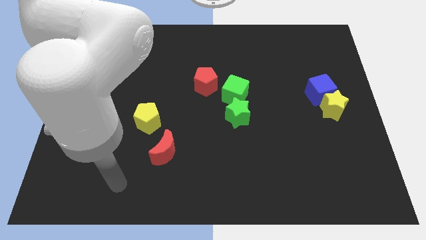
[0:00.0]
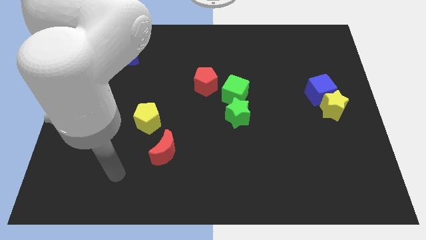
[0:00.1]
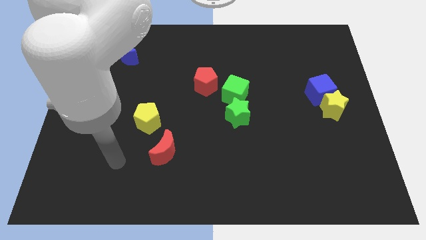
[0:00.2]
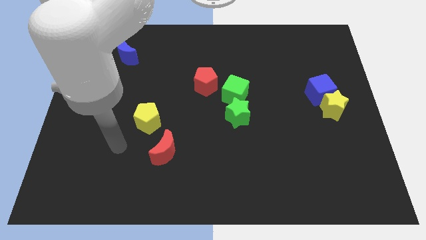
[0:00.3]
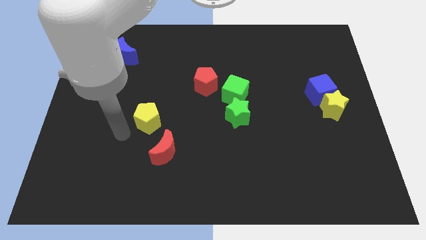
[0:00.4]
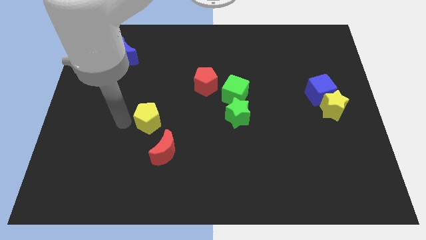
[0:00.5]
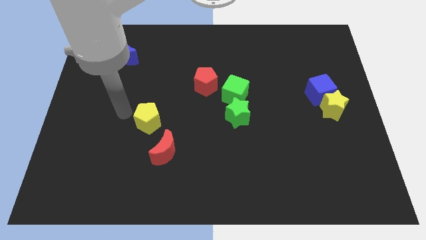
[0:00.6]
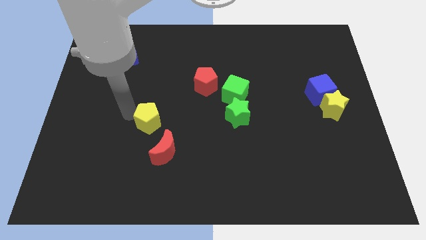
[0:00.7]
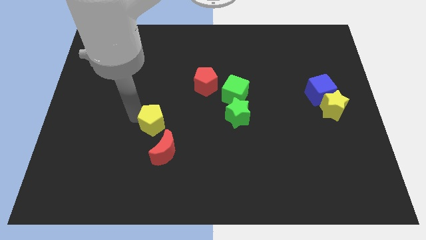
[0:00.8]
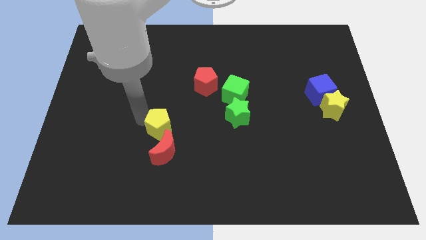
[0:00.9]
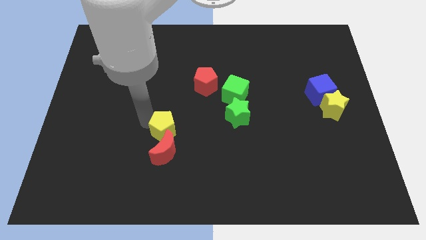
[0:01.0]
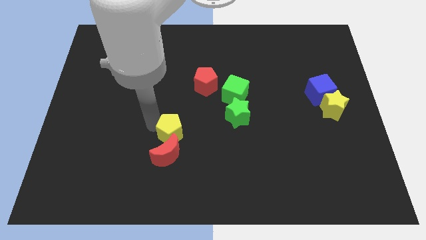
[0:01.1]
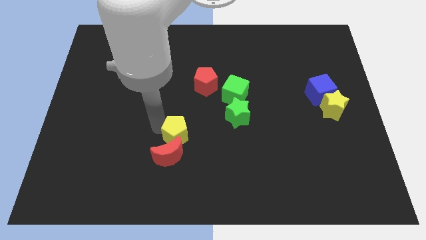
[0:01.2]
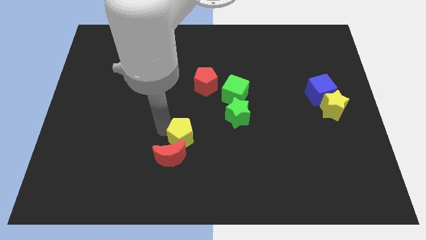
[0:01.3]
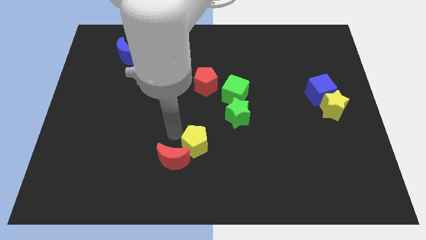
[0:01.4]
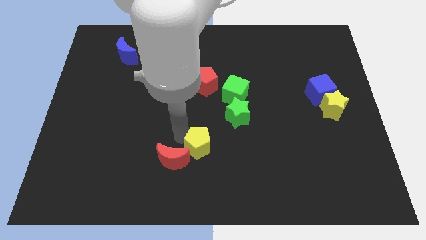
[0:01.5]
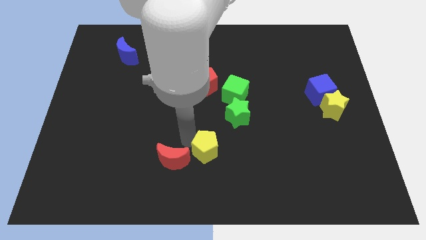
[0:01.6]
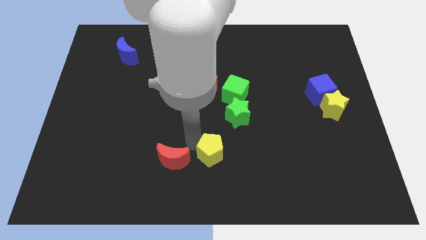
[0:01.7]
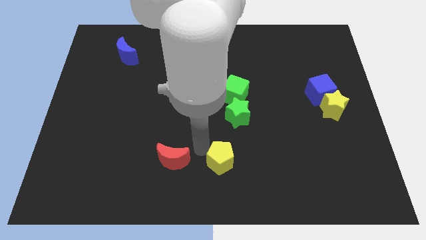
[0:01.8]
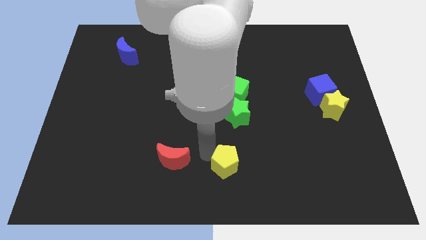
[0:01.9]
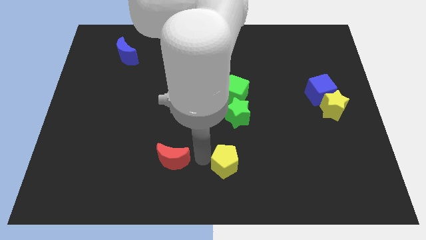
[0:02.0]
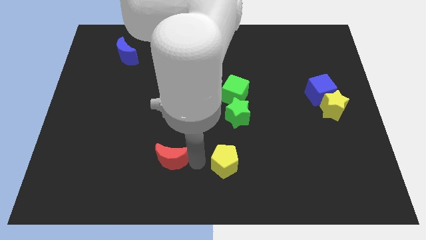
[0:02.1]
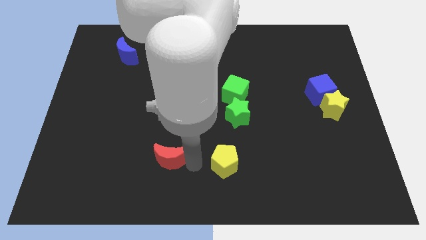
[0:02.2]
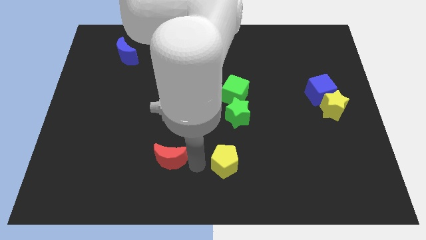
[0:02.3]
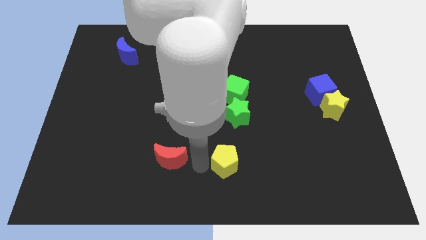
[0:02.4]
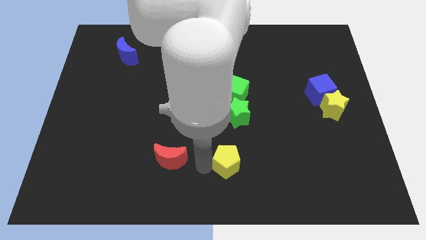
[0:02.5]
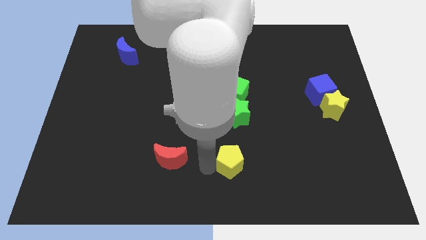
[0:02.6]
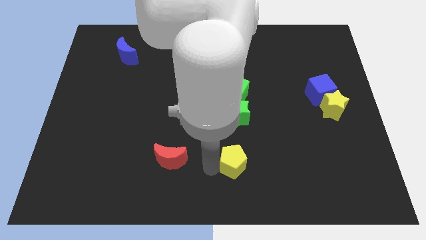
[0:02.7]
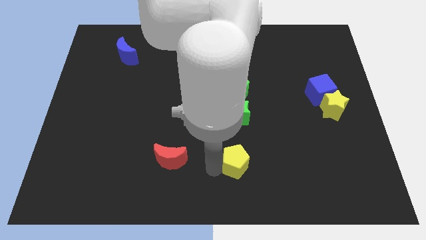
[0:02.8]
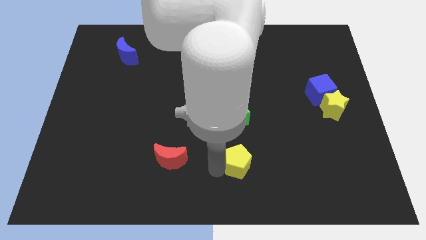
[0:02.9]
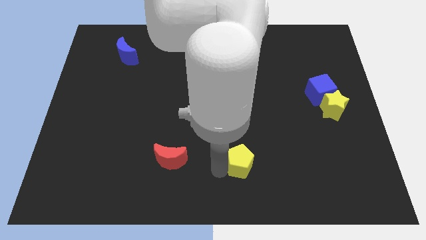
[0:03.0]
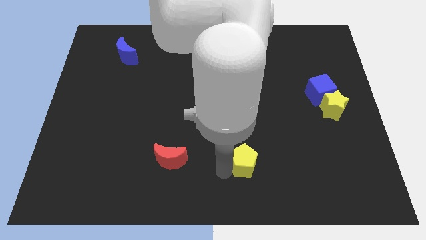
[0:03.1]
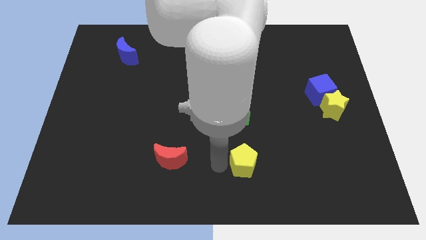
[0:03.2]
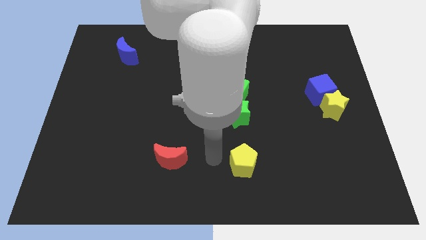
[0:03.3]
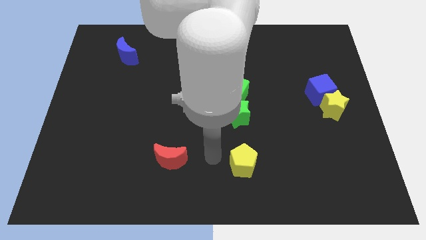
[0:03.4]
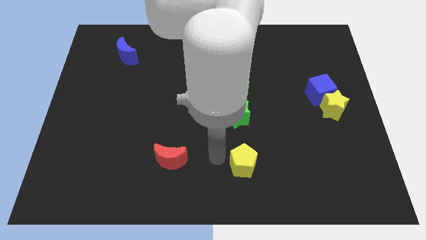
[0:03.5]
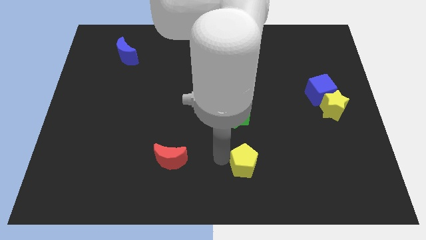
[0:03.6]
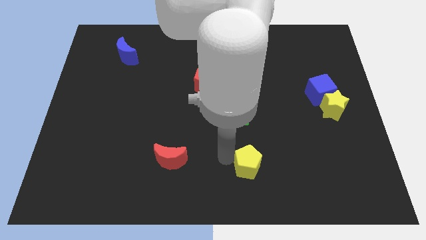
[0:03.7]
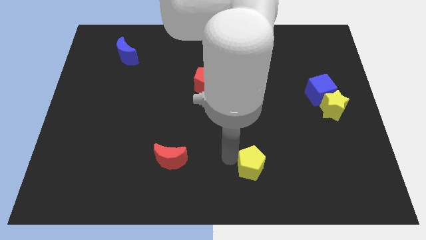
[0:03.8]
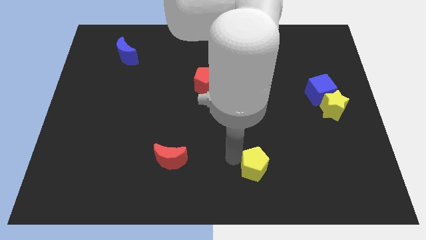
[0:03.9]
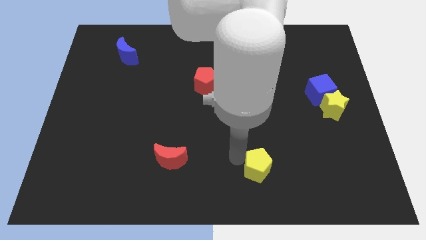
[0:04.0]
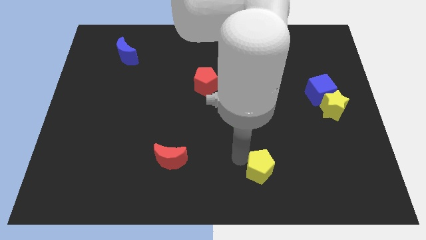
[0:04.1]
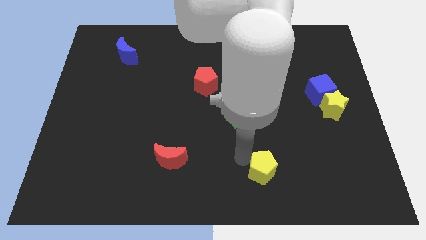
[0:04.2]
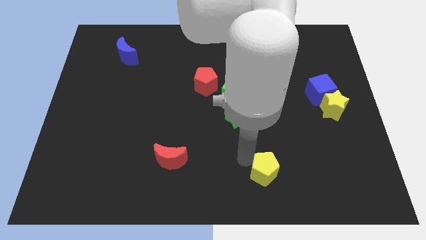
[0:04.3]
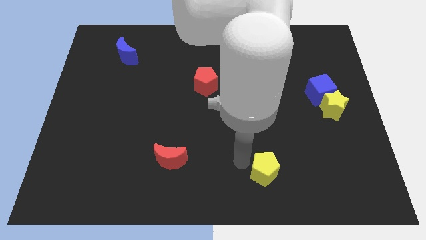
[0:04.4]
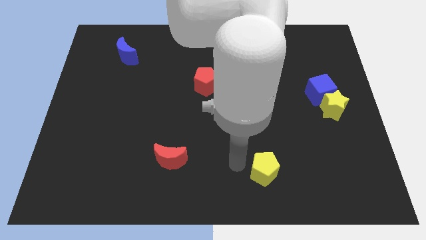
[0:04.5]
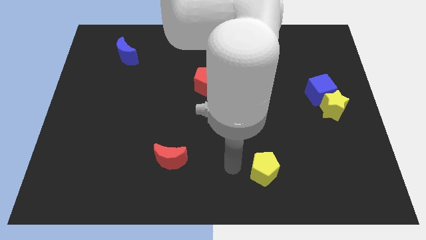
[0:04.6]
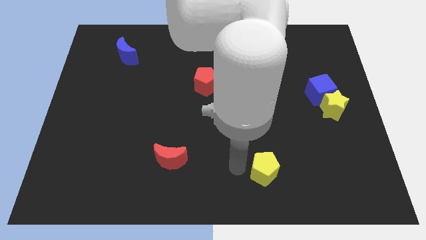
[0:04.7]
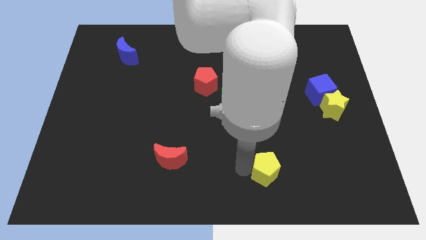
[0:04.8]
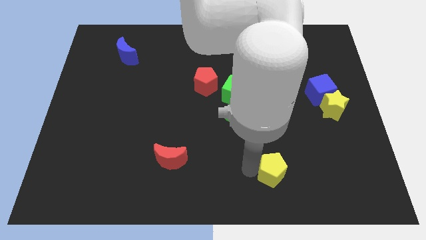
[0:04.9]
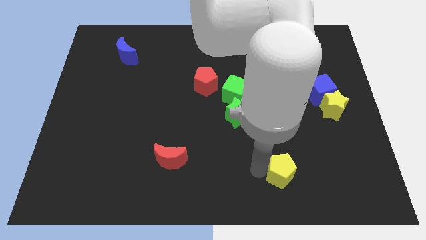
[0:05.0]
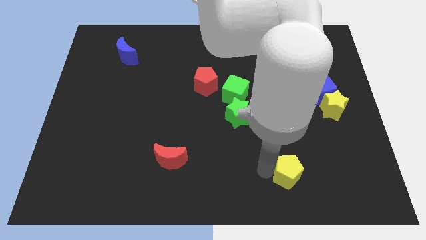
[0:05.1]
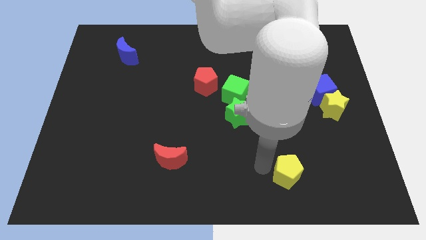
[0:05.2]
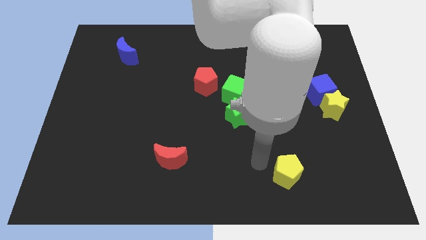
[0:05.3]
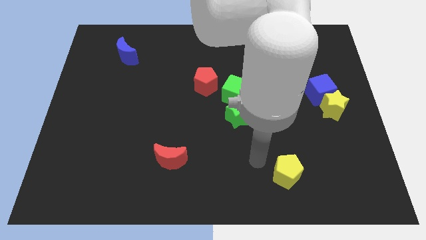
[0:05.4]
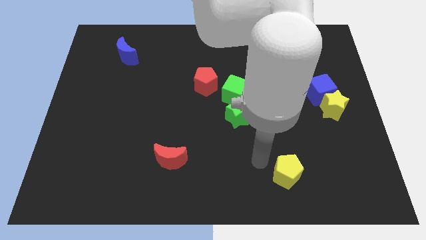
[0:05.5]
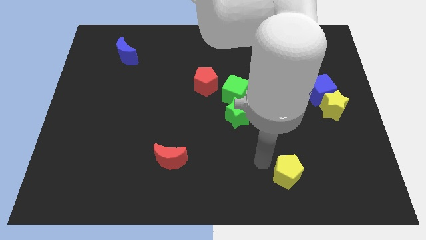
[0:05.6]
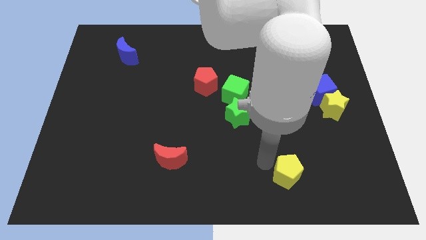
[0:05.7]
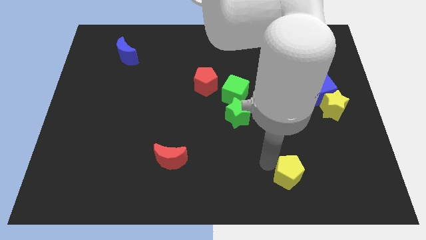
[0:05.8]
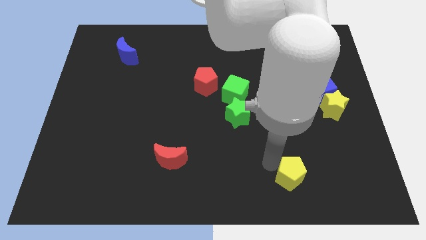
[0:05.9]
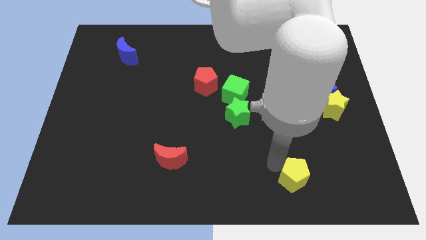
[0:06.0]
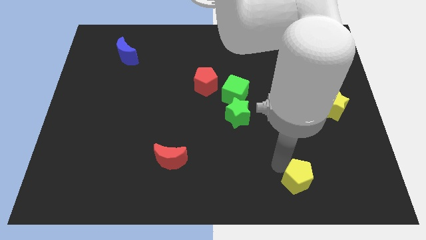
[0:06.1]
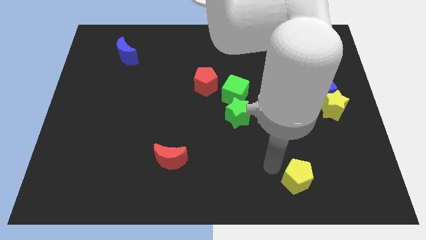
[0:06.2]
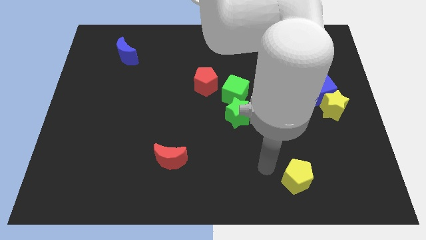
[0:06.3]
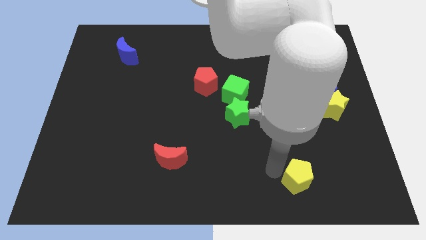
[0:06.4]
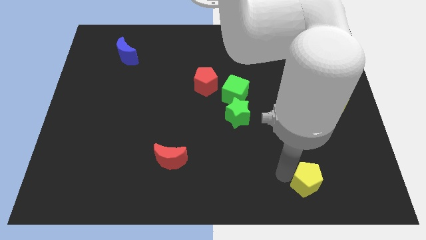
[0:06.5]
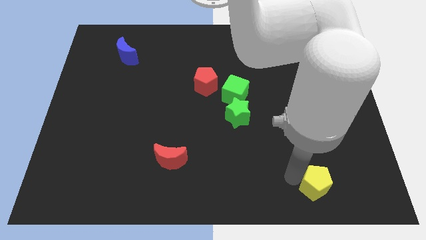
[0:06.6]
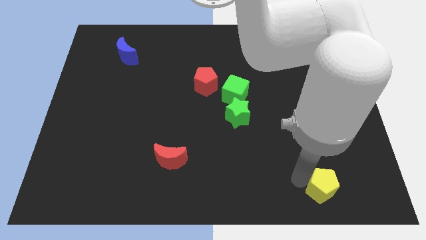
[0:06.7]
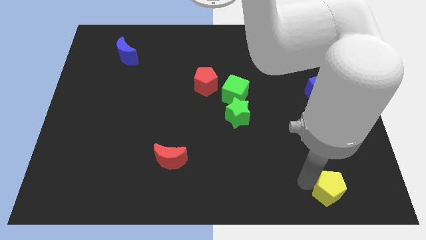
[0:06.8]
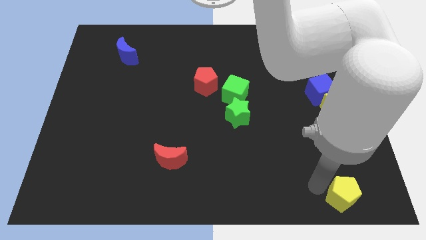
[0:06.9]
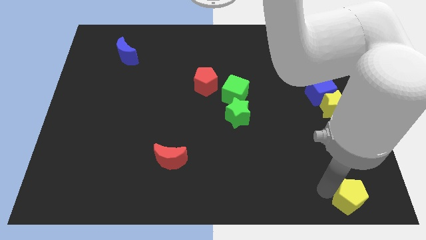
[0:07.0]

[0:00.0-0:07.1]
move the yellow pentagon to the bottom right
